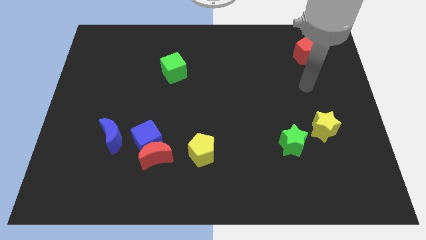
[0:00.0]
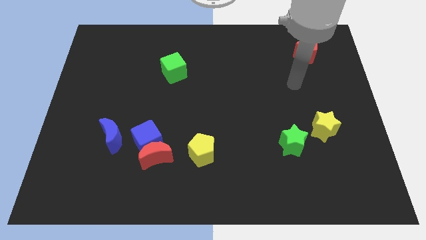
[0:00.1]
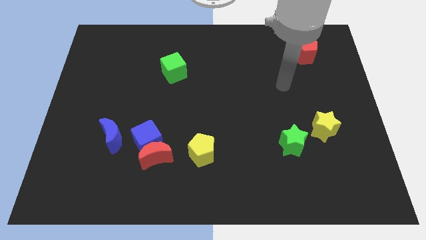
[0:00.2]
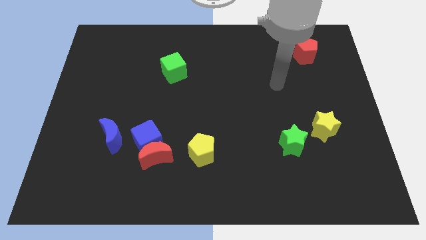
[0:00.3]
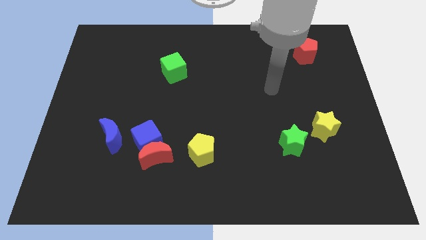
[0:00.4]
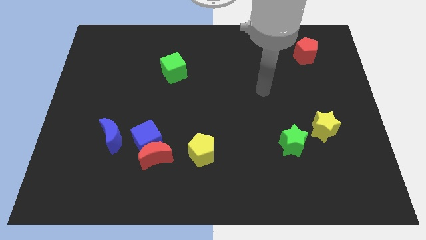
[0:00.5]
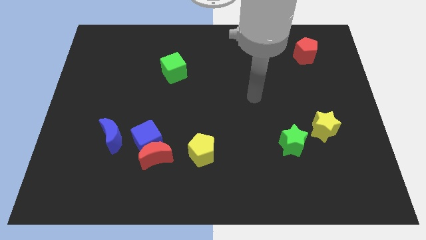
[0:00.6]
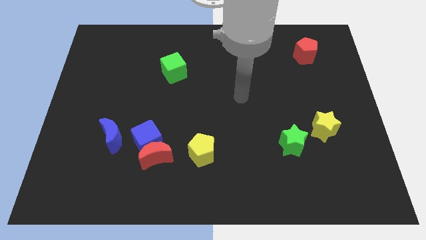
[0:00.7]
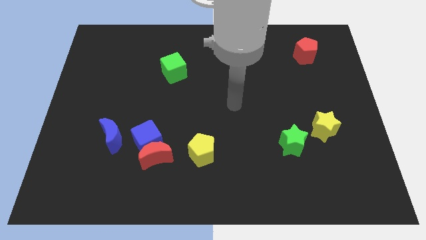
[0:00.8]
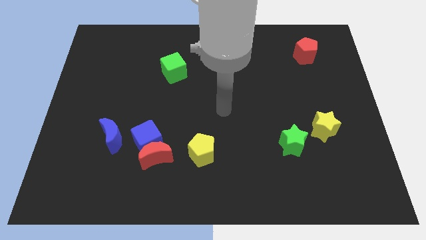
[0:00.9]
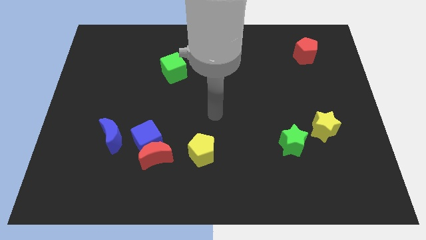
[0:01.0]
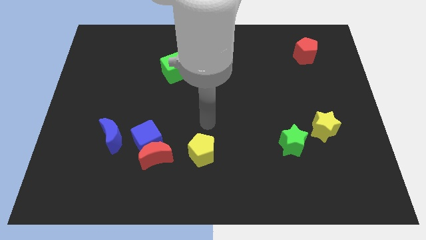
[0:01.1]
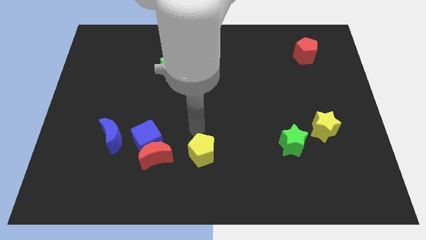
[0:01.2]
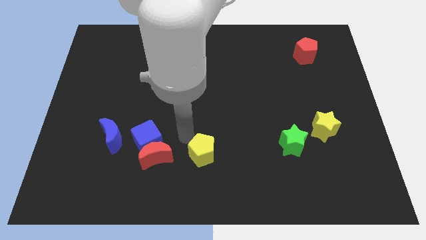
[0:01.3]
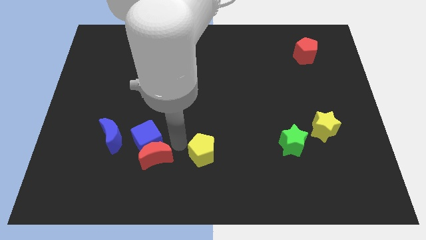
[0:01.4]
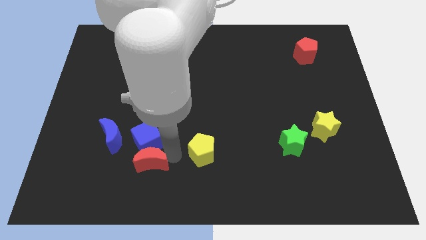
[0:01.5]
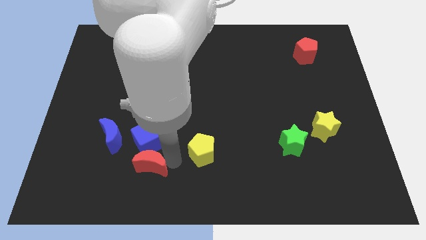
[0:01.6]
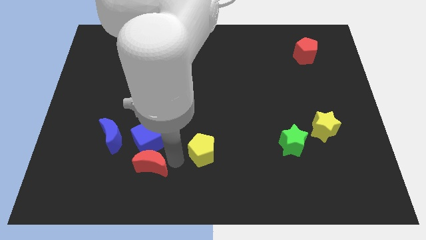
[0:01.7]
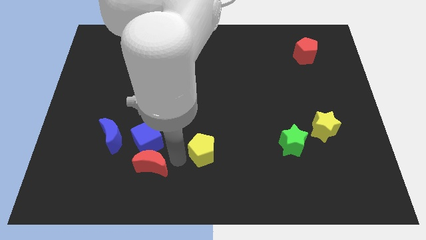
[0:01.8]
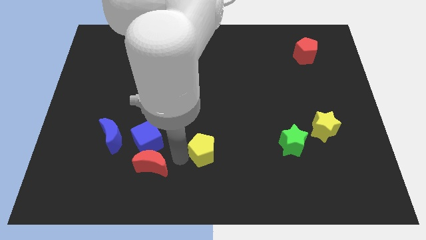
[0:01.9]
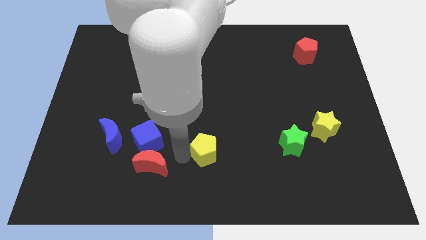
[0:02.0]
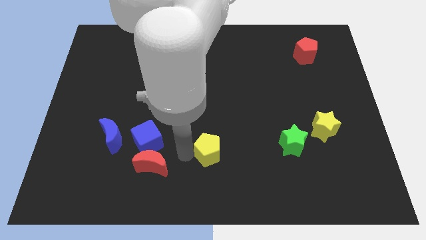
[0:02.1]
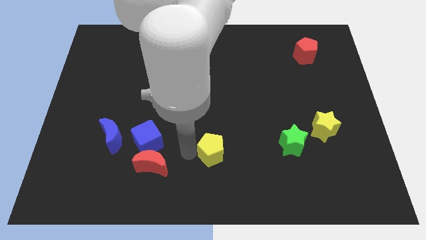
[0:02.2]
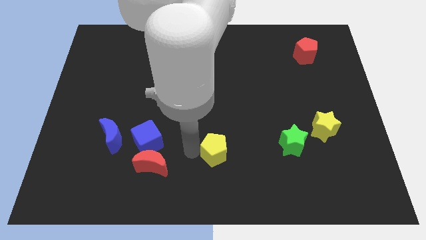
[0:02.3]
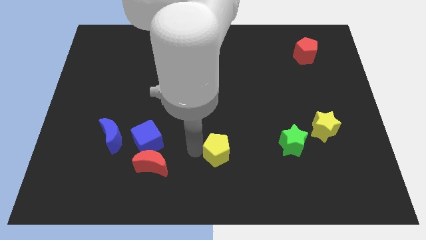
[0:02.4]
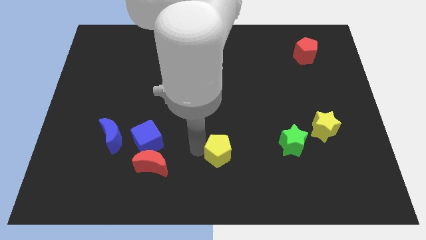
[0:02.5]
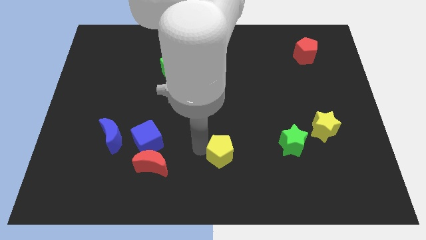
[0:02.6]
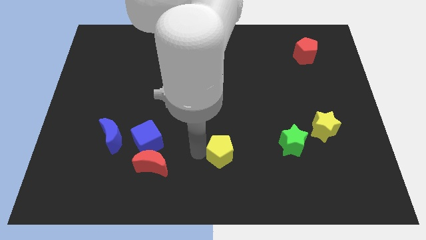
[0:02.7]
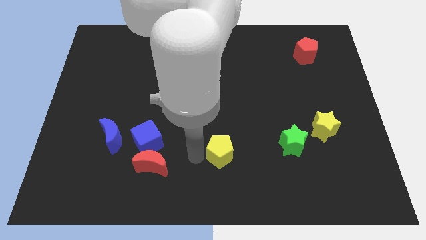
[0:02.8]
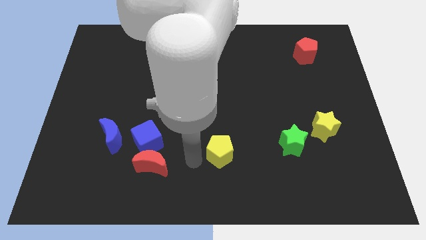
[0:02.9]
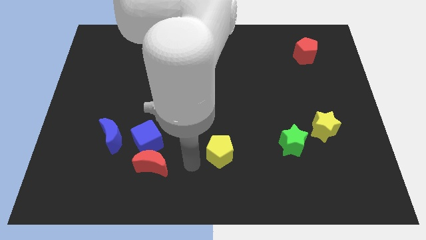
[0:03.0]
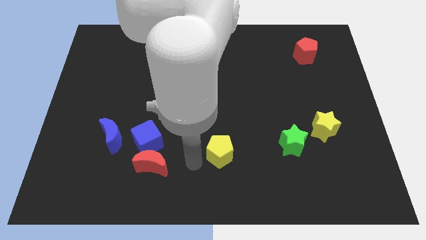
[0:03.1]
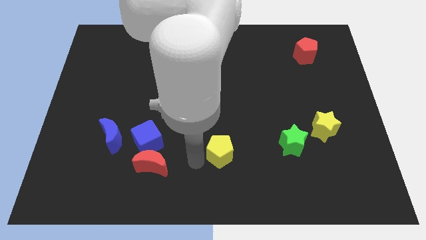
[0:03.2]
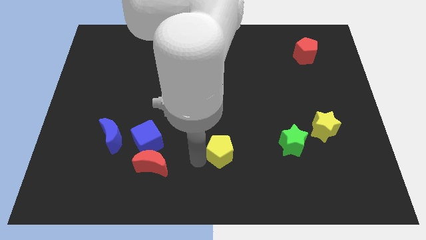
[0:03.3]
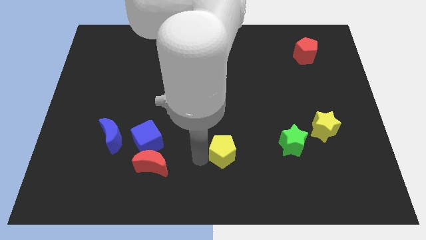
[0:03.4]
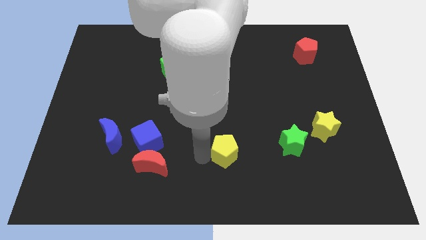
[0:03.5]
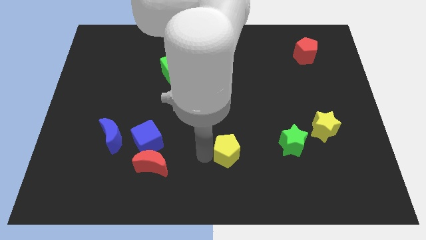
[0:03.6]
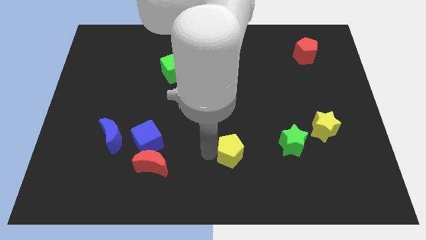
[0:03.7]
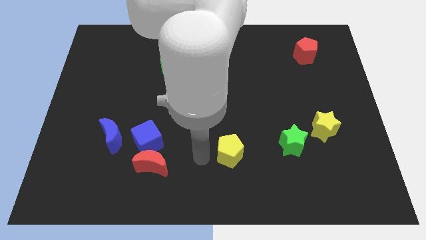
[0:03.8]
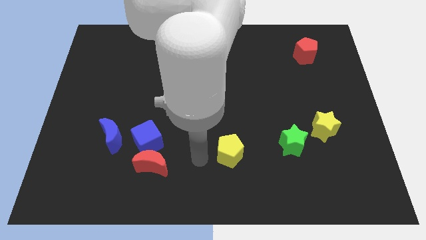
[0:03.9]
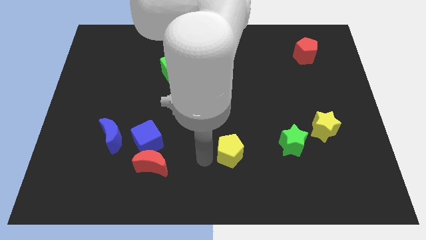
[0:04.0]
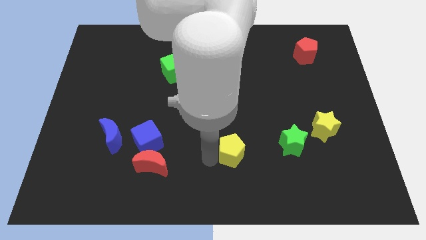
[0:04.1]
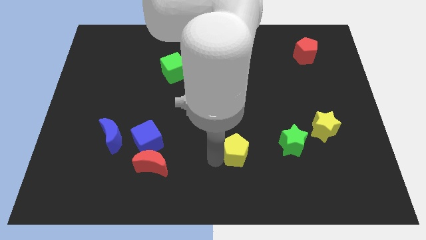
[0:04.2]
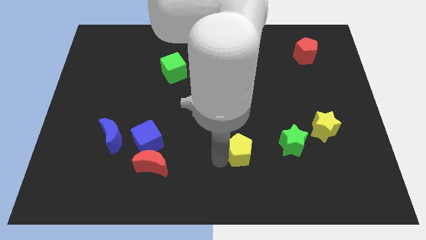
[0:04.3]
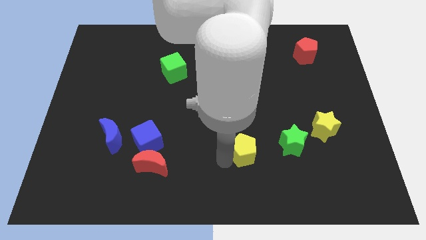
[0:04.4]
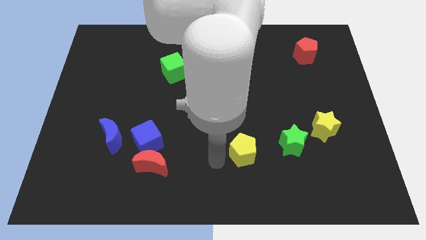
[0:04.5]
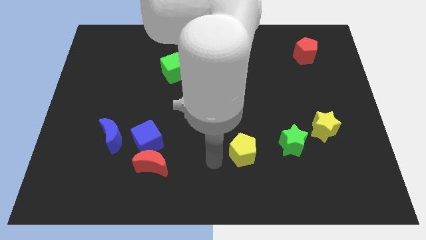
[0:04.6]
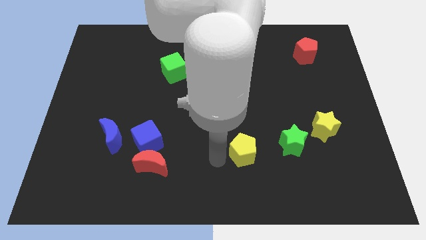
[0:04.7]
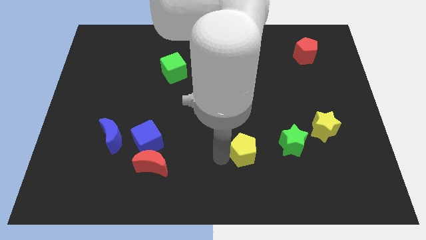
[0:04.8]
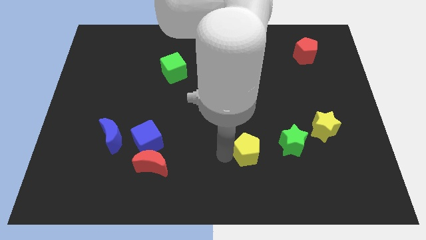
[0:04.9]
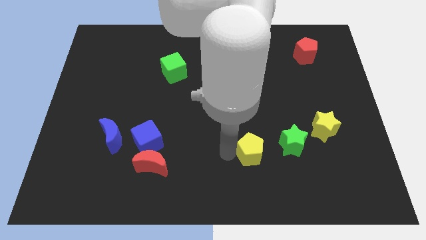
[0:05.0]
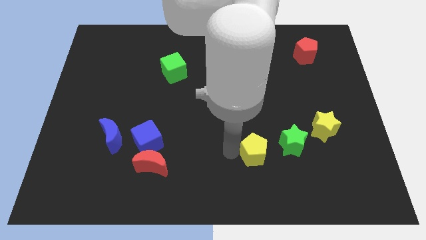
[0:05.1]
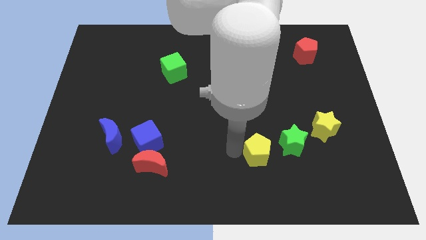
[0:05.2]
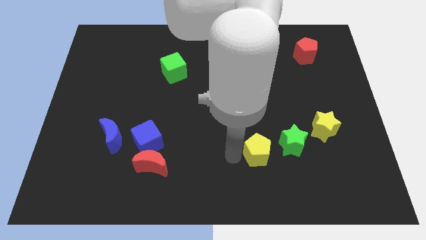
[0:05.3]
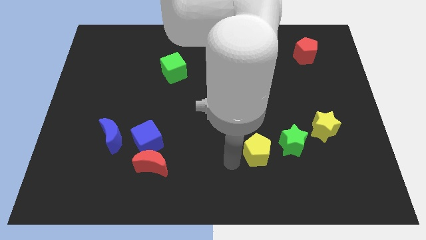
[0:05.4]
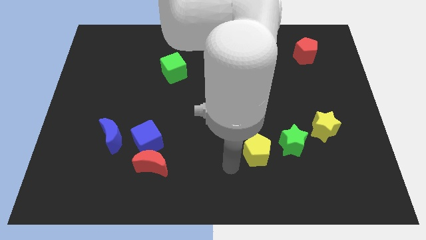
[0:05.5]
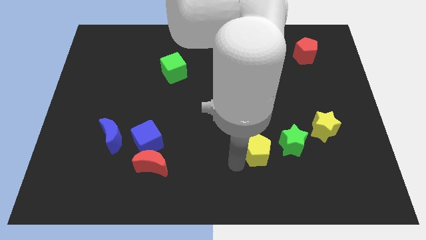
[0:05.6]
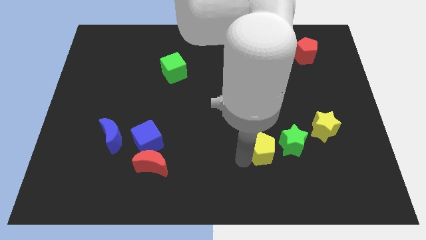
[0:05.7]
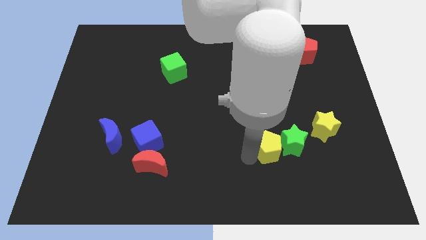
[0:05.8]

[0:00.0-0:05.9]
move the yellow pentagon towards the green star

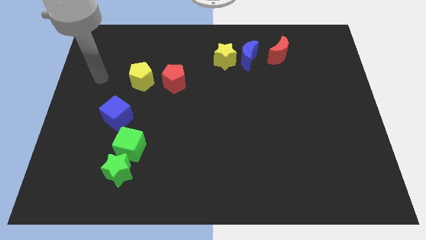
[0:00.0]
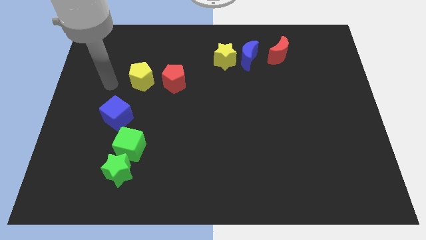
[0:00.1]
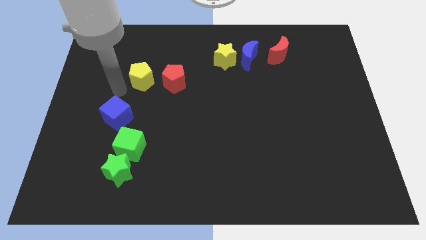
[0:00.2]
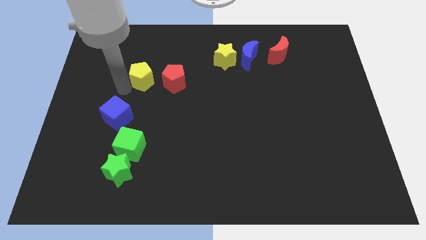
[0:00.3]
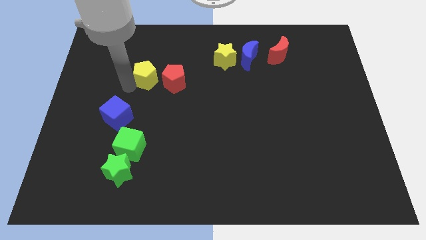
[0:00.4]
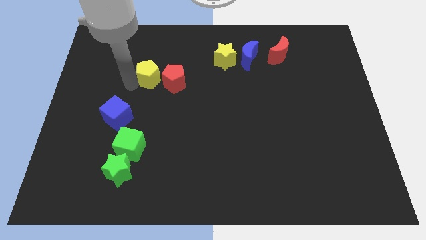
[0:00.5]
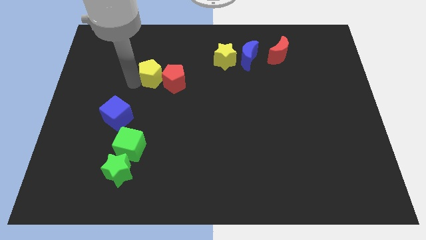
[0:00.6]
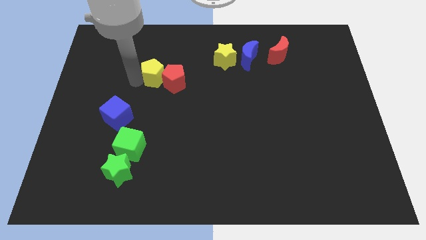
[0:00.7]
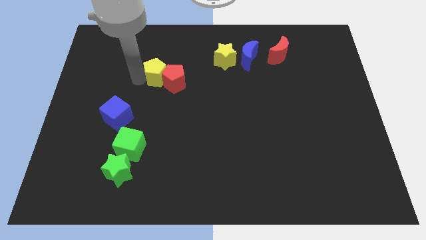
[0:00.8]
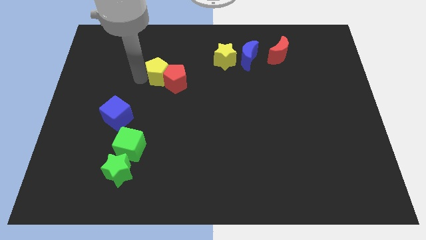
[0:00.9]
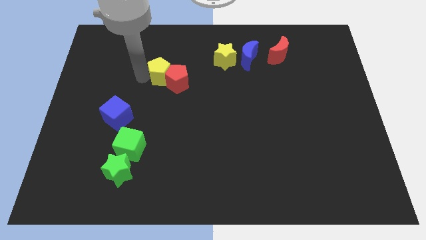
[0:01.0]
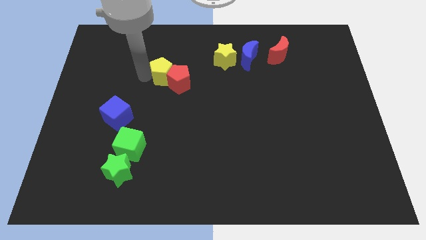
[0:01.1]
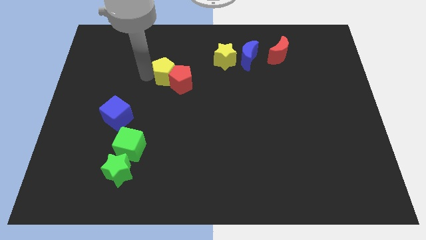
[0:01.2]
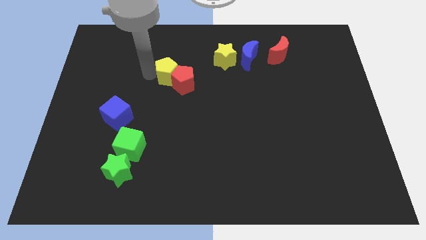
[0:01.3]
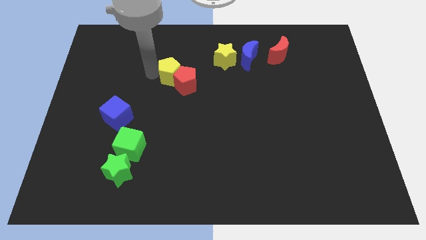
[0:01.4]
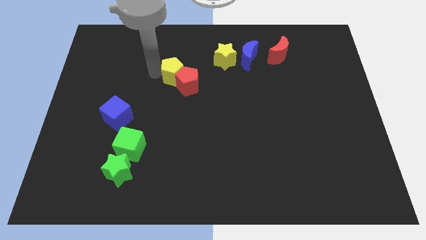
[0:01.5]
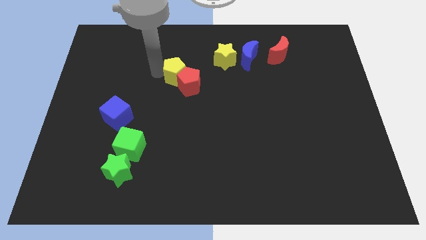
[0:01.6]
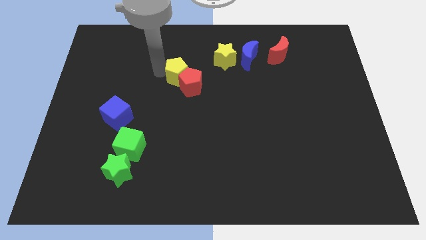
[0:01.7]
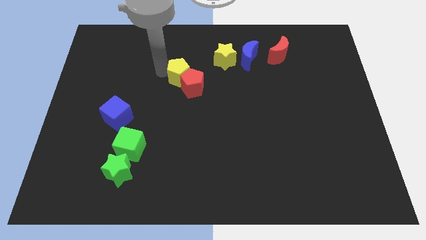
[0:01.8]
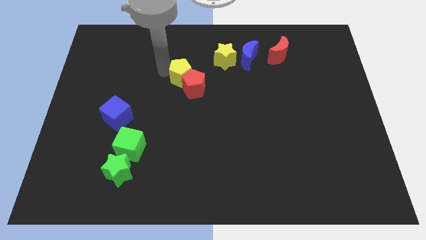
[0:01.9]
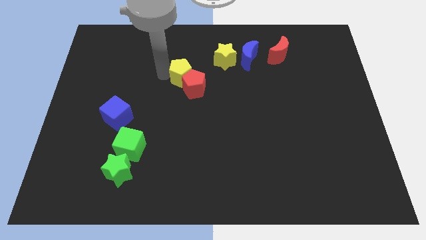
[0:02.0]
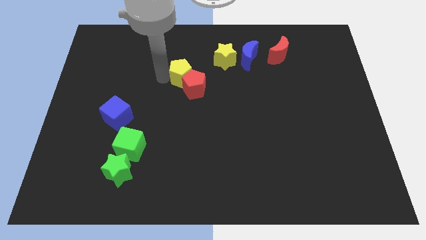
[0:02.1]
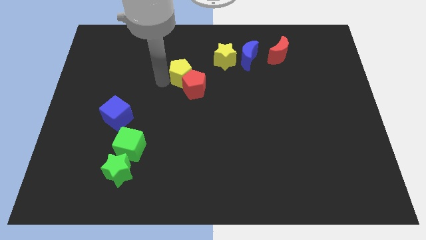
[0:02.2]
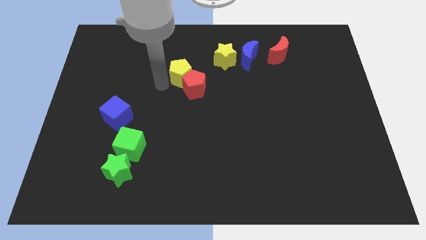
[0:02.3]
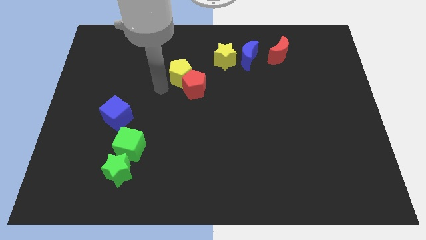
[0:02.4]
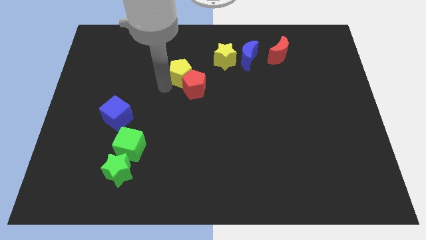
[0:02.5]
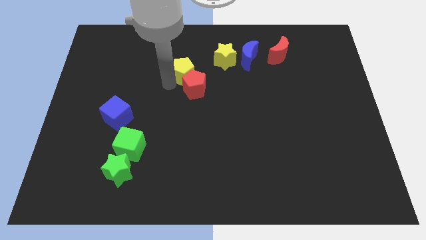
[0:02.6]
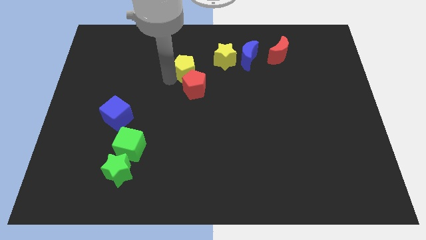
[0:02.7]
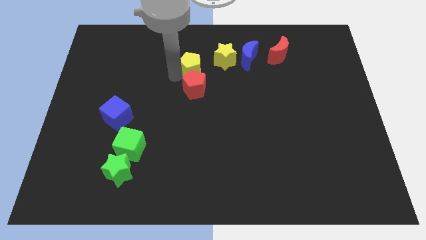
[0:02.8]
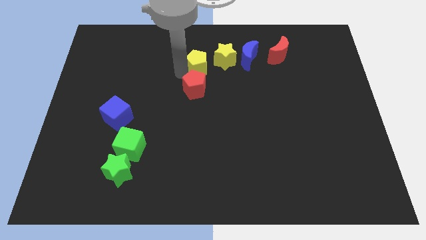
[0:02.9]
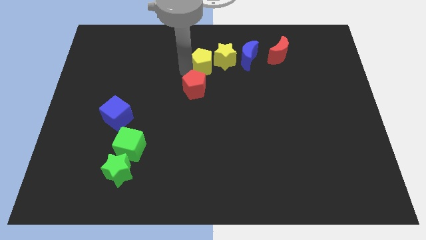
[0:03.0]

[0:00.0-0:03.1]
move the yellow pentagon next to the yellow star
